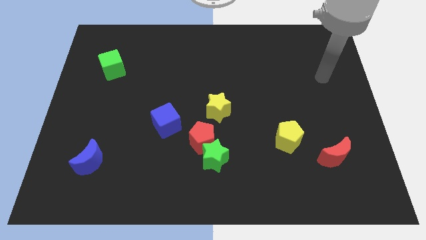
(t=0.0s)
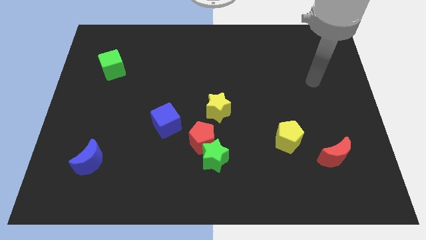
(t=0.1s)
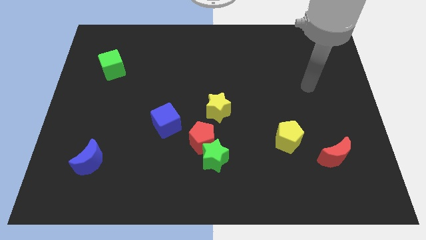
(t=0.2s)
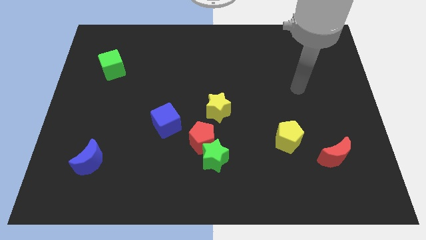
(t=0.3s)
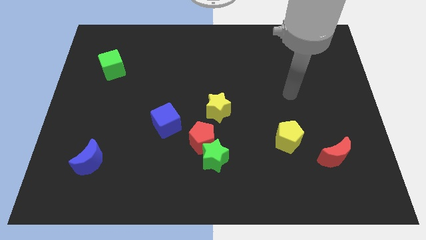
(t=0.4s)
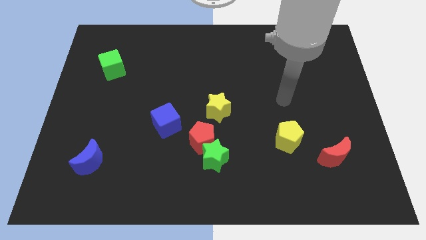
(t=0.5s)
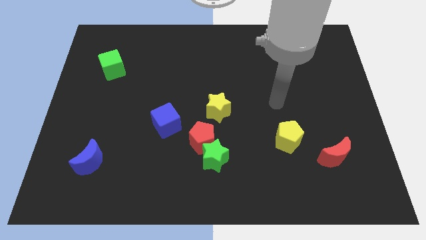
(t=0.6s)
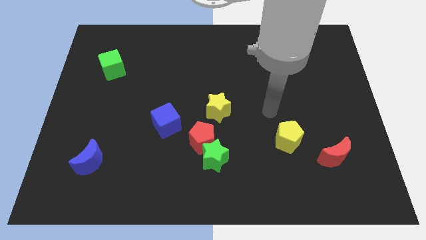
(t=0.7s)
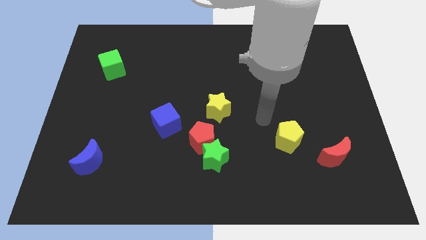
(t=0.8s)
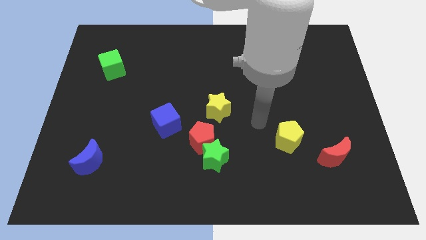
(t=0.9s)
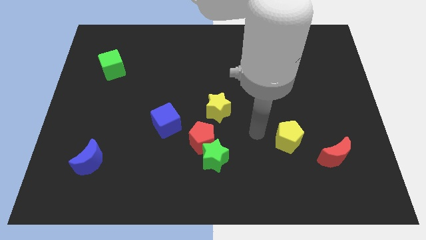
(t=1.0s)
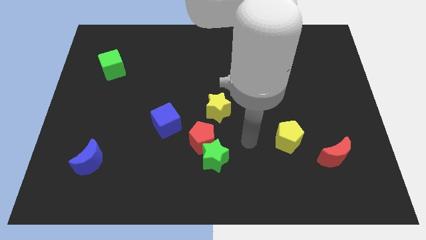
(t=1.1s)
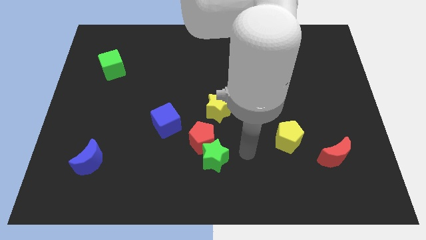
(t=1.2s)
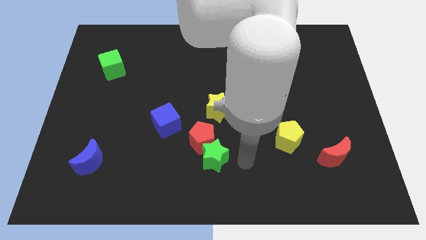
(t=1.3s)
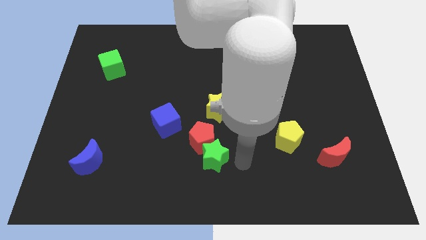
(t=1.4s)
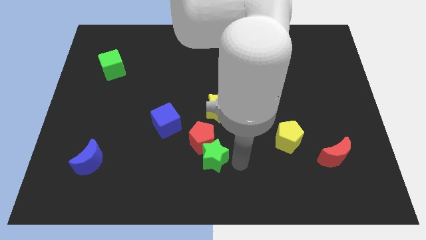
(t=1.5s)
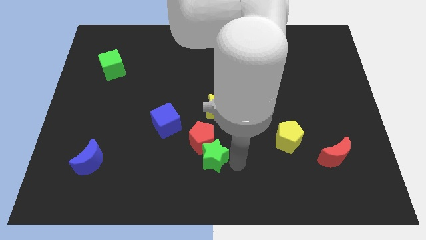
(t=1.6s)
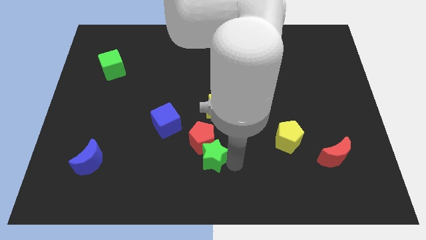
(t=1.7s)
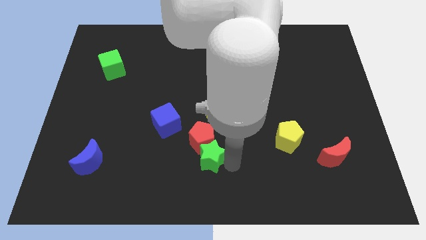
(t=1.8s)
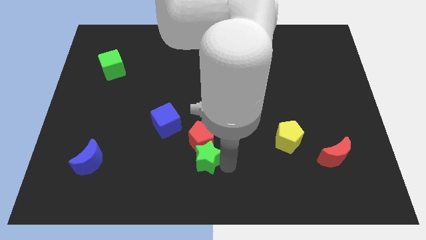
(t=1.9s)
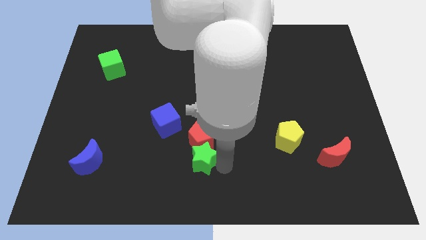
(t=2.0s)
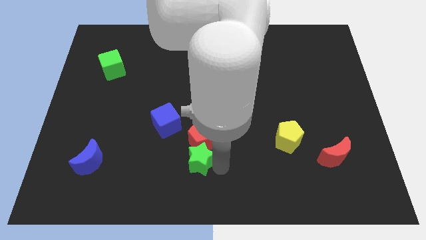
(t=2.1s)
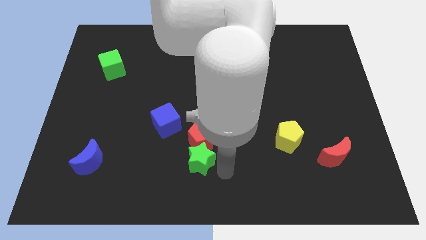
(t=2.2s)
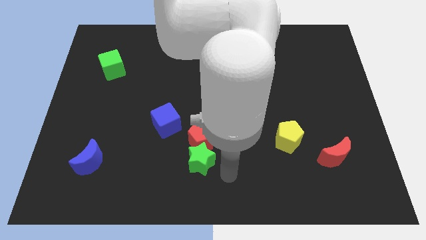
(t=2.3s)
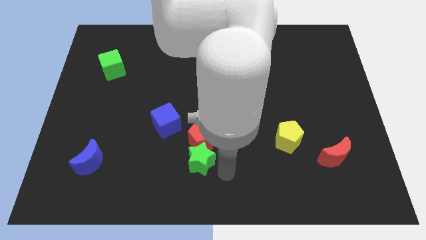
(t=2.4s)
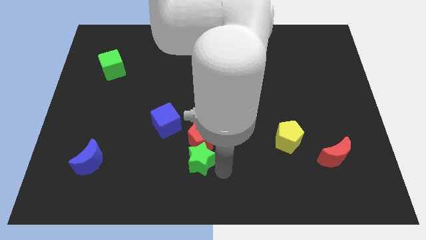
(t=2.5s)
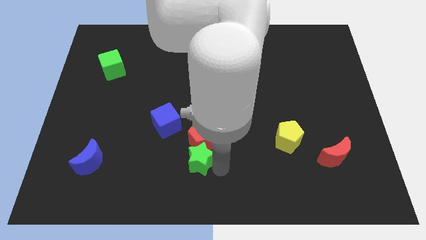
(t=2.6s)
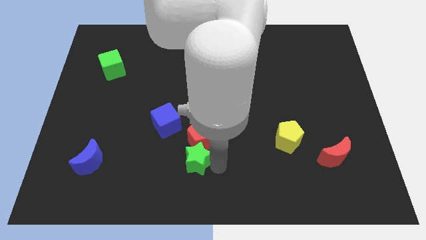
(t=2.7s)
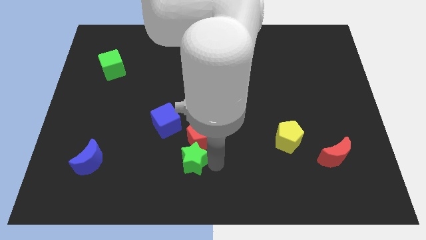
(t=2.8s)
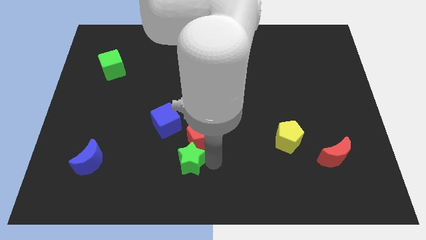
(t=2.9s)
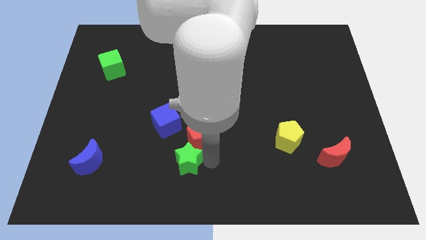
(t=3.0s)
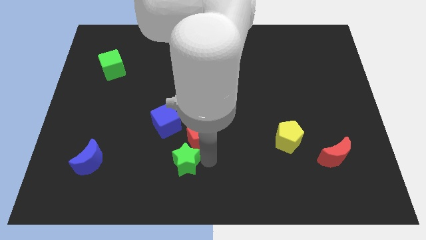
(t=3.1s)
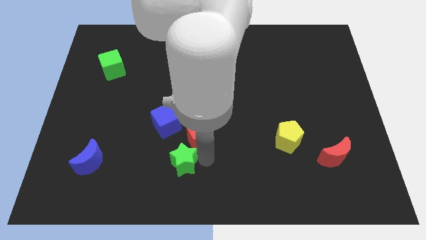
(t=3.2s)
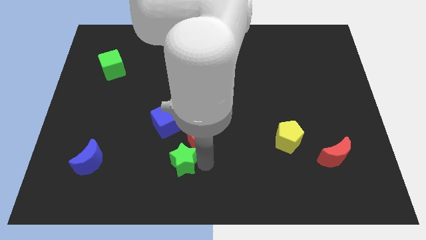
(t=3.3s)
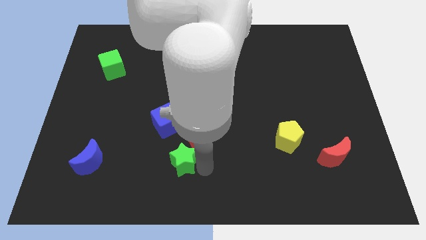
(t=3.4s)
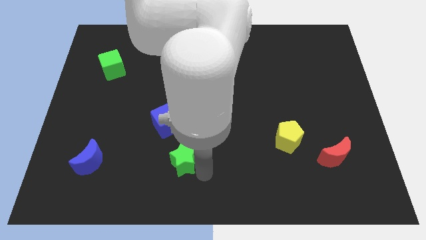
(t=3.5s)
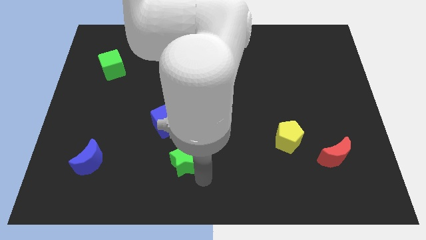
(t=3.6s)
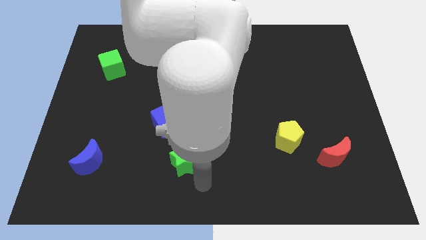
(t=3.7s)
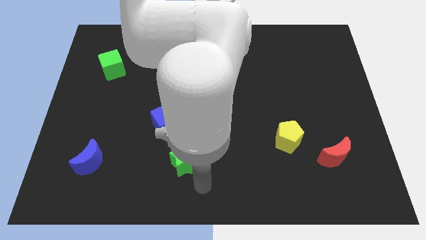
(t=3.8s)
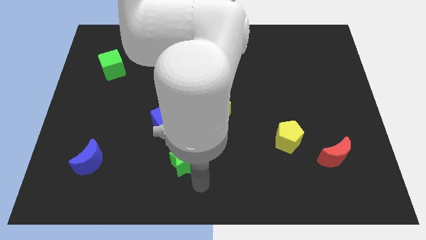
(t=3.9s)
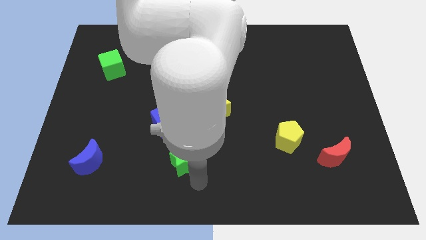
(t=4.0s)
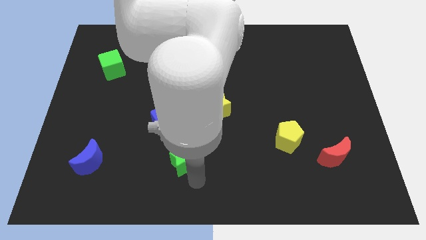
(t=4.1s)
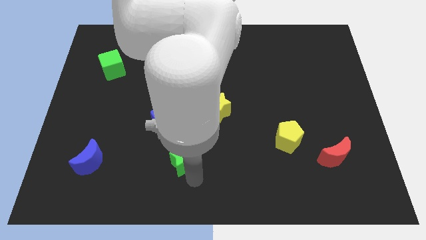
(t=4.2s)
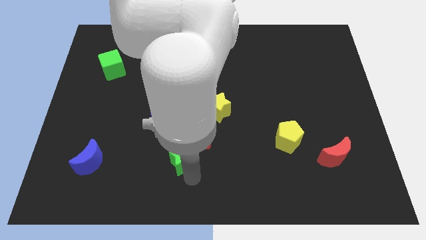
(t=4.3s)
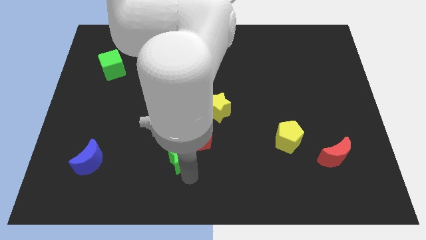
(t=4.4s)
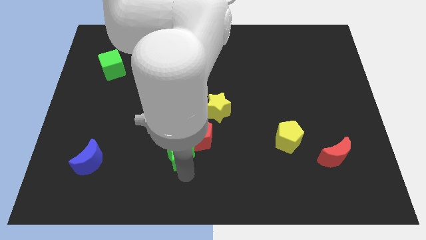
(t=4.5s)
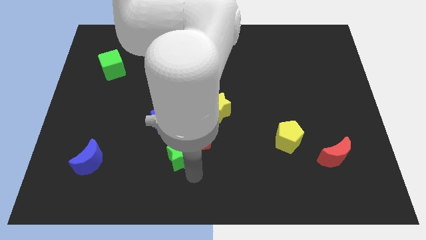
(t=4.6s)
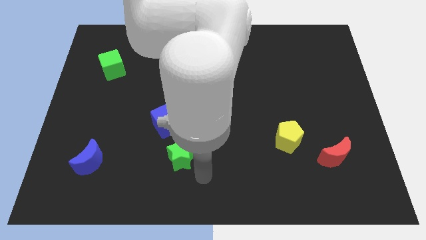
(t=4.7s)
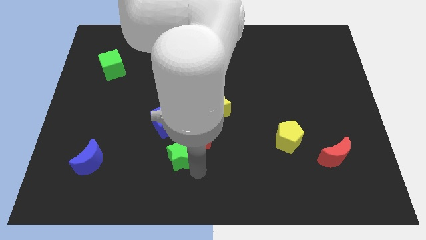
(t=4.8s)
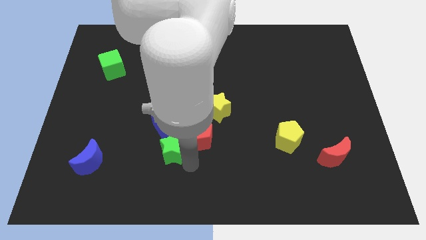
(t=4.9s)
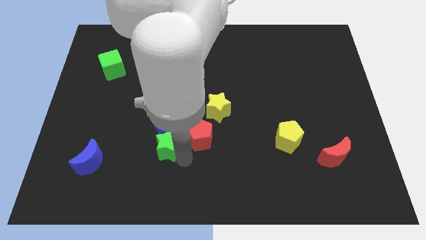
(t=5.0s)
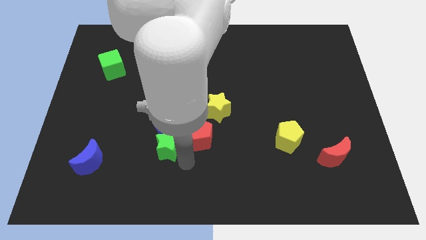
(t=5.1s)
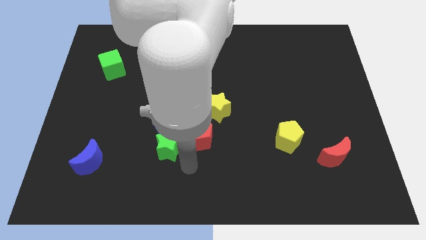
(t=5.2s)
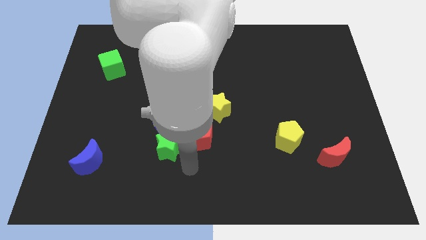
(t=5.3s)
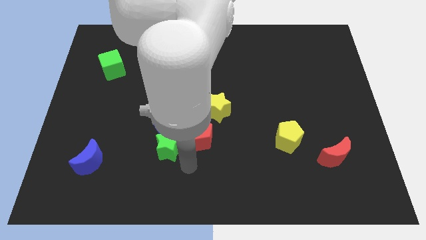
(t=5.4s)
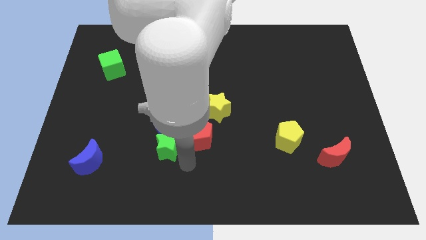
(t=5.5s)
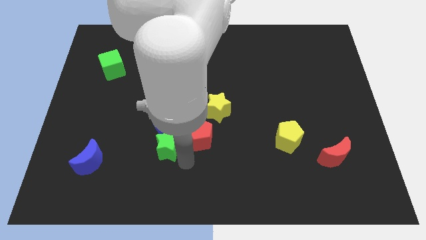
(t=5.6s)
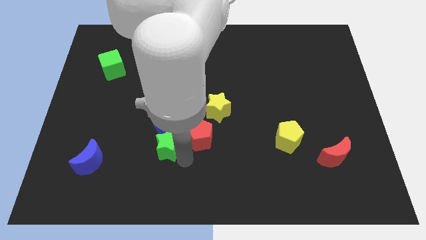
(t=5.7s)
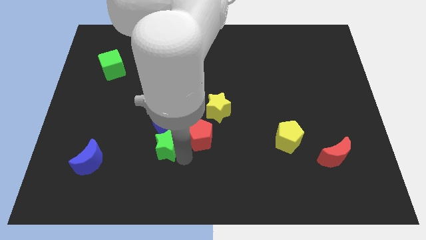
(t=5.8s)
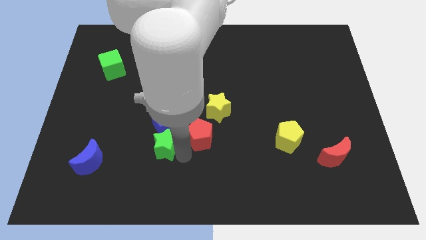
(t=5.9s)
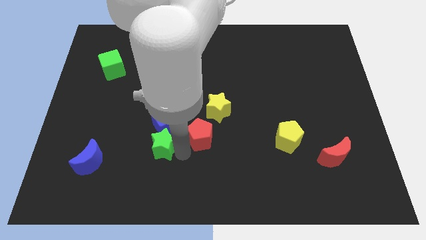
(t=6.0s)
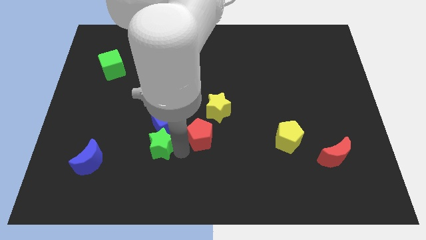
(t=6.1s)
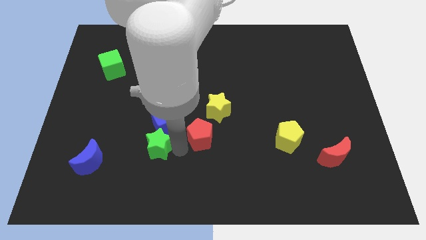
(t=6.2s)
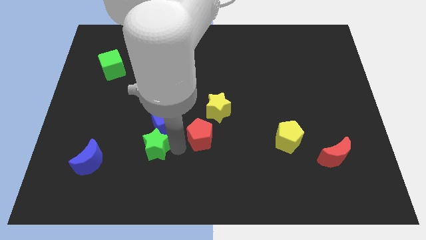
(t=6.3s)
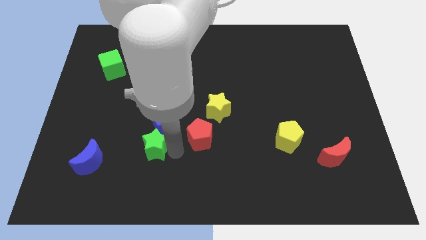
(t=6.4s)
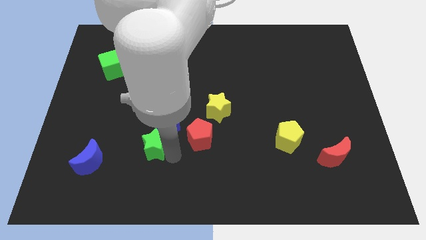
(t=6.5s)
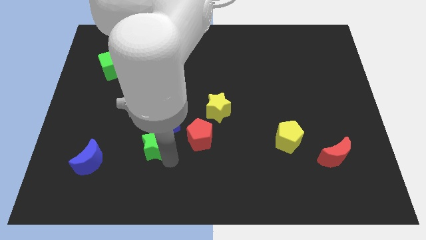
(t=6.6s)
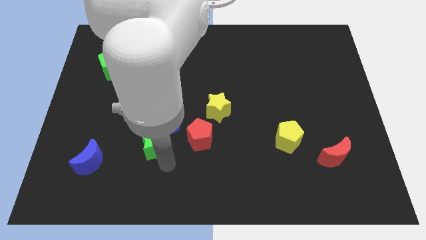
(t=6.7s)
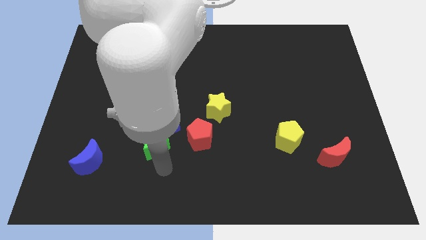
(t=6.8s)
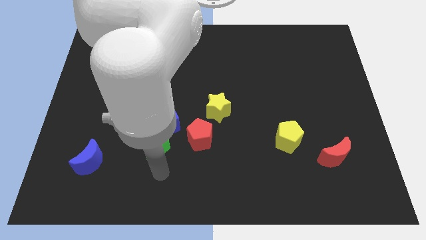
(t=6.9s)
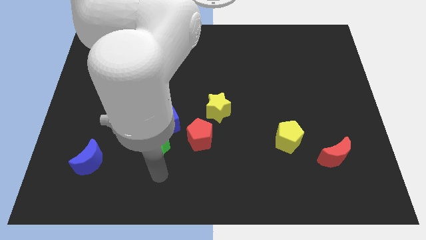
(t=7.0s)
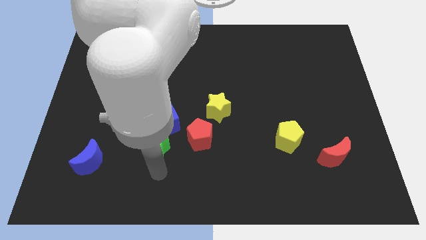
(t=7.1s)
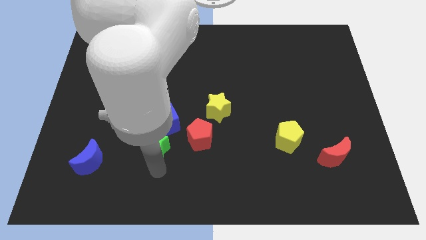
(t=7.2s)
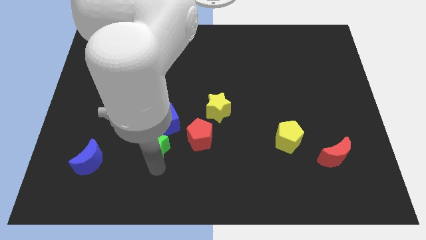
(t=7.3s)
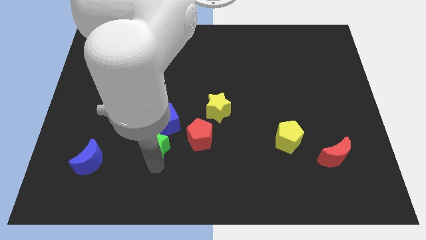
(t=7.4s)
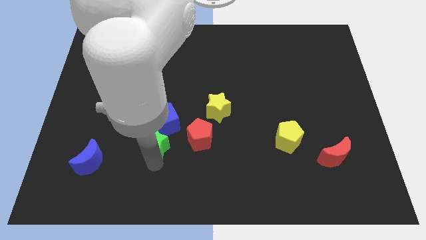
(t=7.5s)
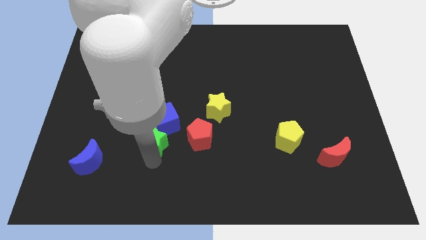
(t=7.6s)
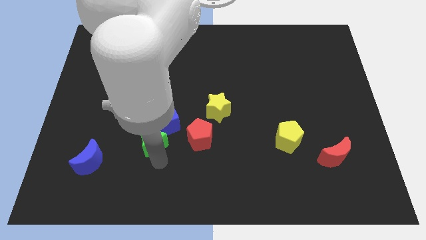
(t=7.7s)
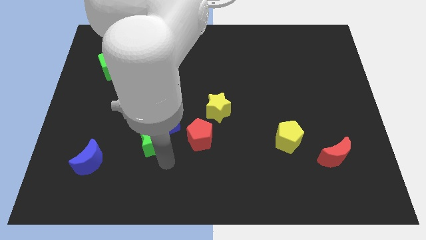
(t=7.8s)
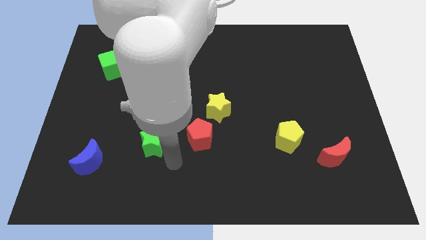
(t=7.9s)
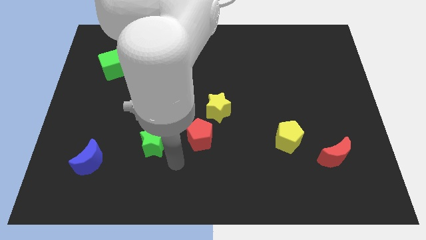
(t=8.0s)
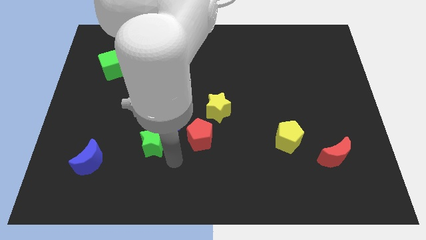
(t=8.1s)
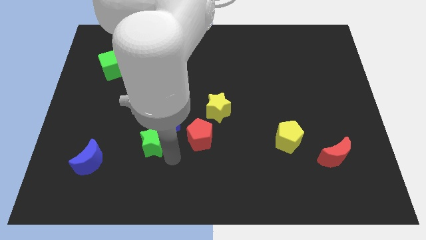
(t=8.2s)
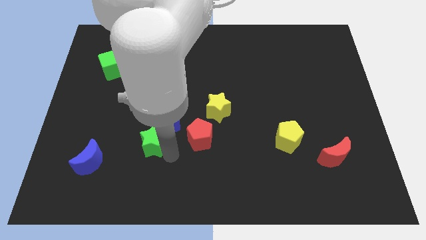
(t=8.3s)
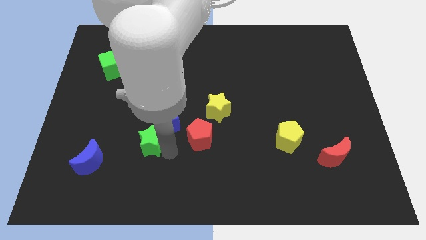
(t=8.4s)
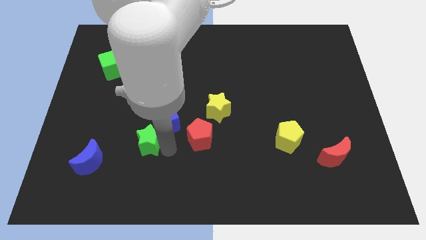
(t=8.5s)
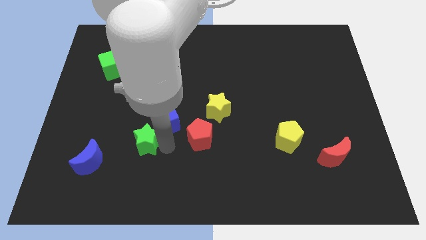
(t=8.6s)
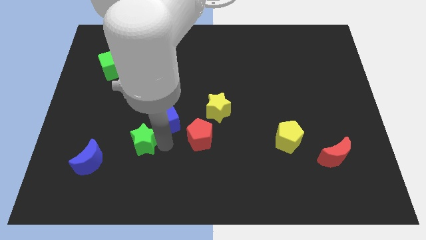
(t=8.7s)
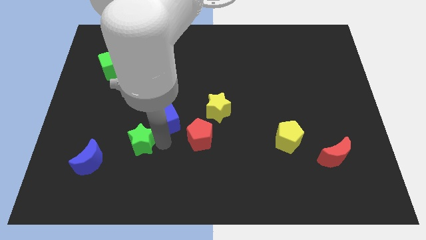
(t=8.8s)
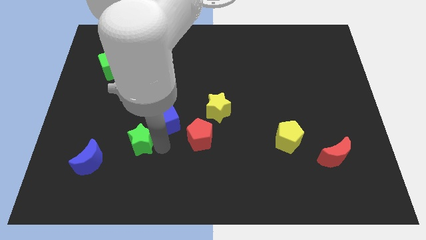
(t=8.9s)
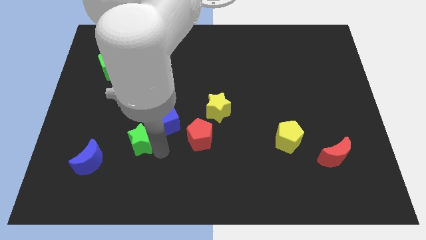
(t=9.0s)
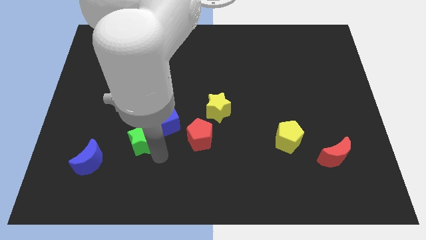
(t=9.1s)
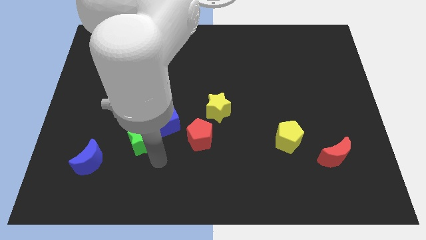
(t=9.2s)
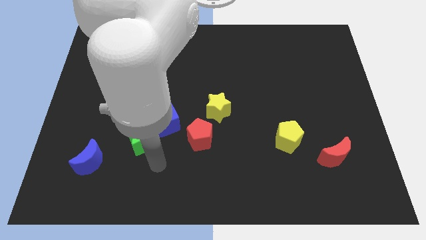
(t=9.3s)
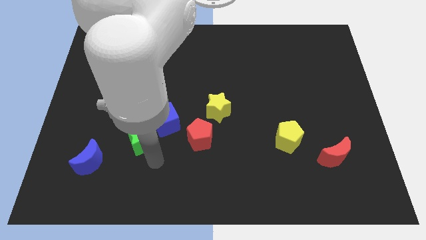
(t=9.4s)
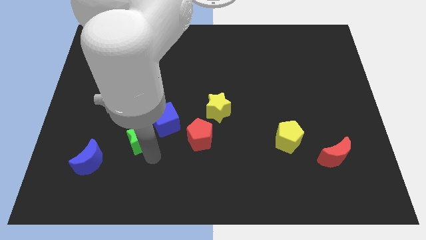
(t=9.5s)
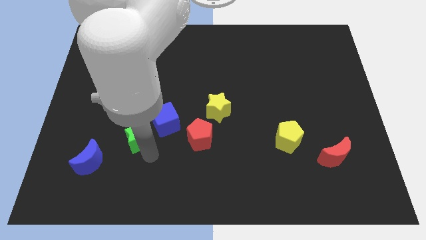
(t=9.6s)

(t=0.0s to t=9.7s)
push the green star just left of the blue cube
